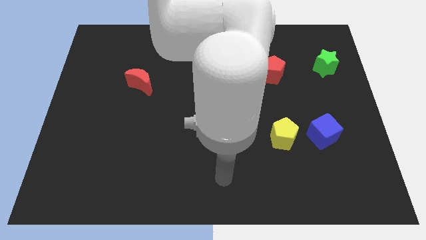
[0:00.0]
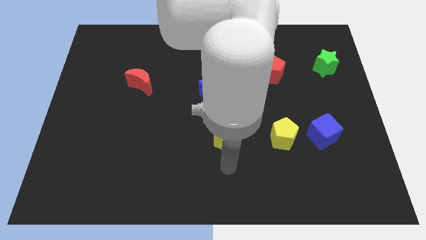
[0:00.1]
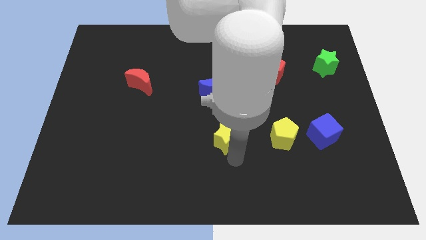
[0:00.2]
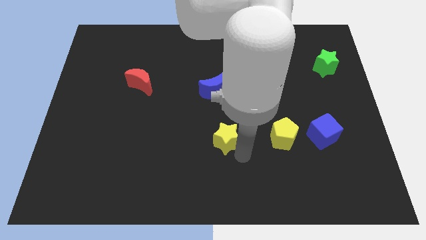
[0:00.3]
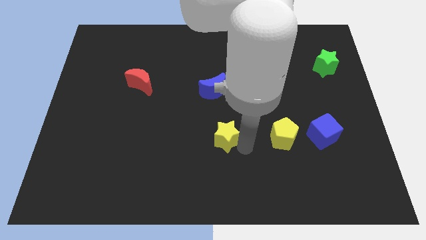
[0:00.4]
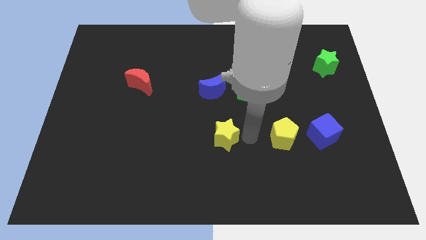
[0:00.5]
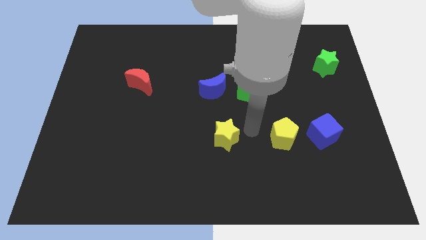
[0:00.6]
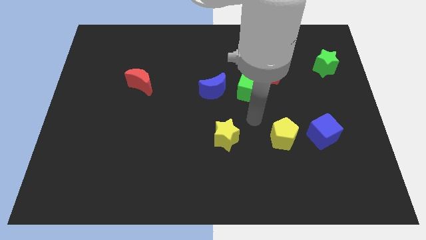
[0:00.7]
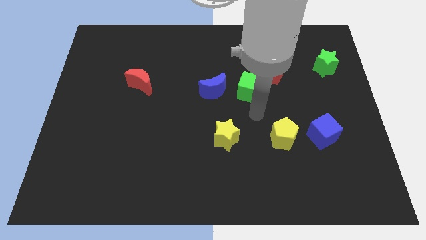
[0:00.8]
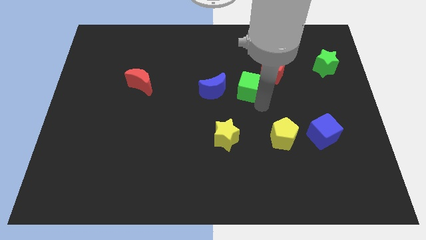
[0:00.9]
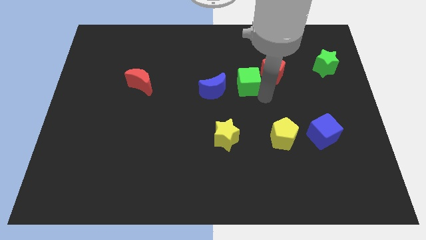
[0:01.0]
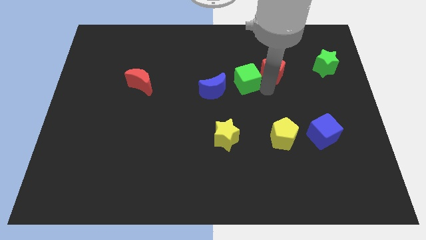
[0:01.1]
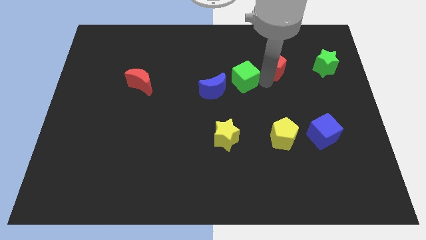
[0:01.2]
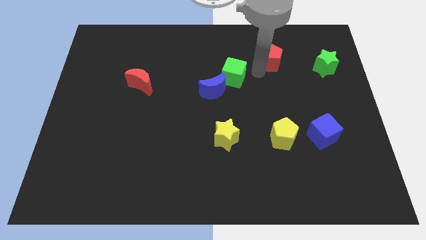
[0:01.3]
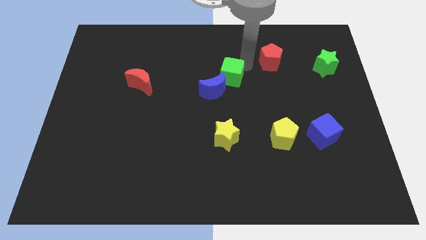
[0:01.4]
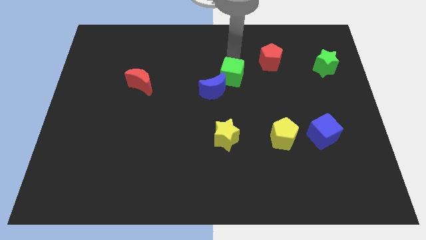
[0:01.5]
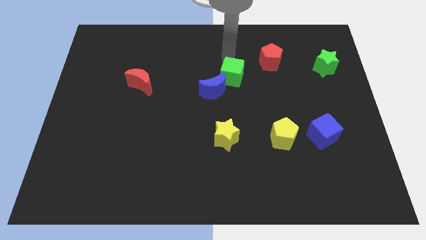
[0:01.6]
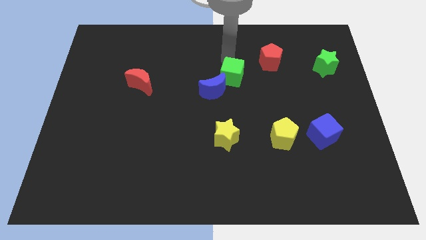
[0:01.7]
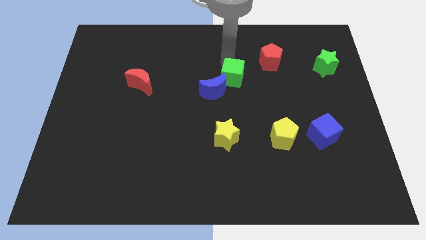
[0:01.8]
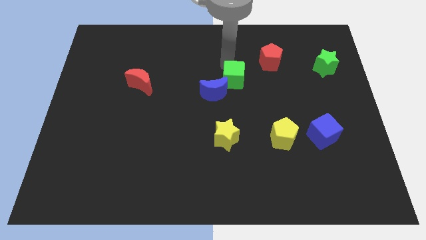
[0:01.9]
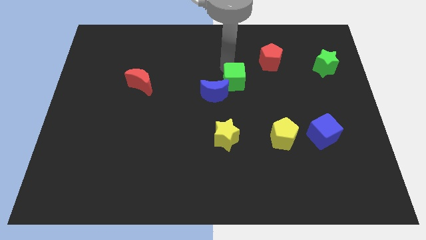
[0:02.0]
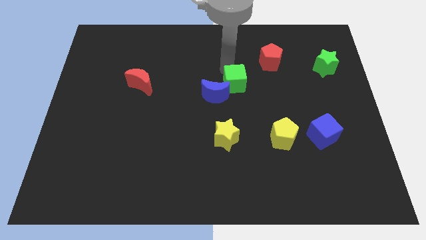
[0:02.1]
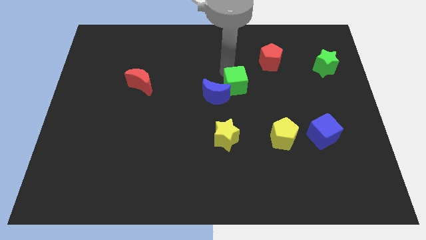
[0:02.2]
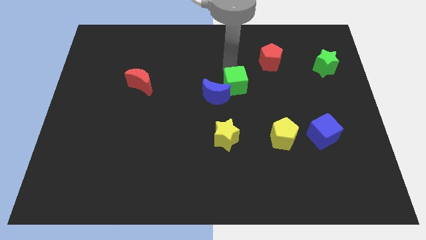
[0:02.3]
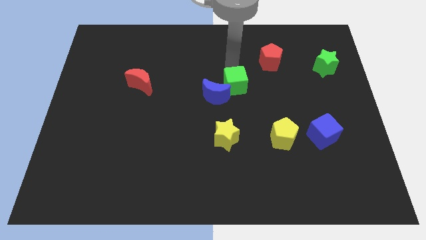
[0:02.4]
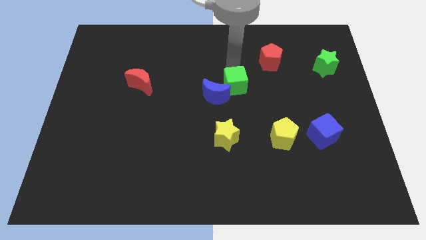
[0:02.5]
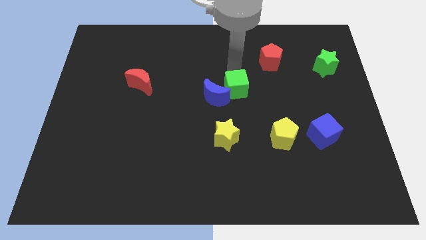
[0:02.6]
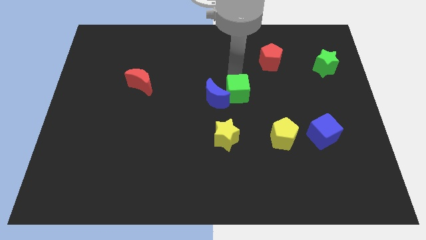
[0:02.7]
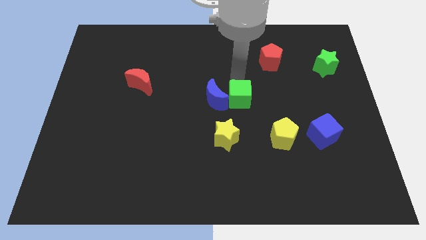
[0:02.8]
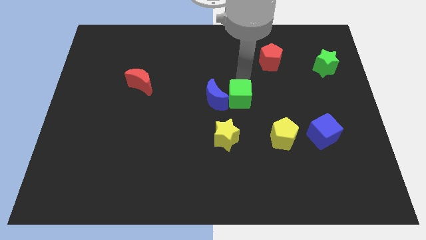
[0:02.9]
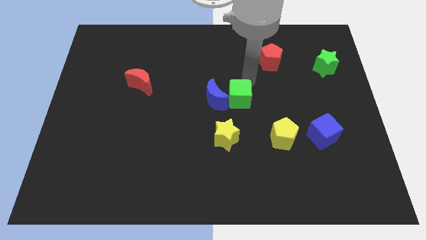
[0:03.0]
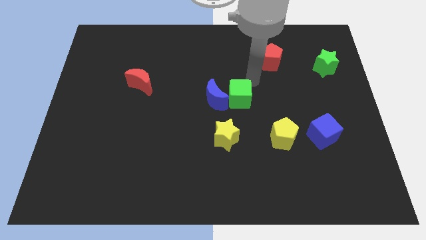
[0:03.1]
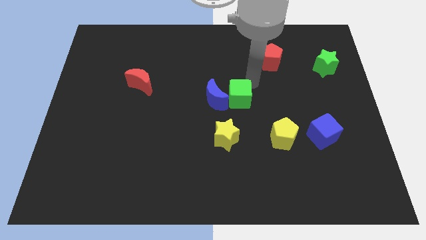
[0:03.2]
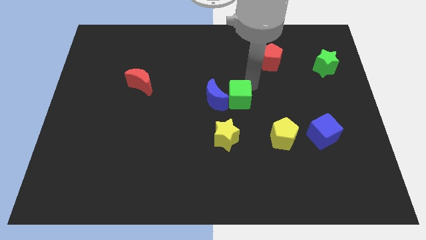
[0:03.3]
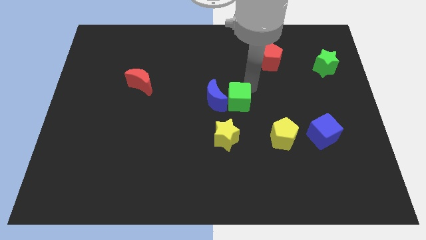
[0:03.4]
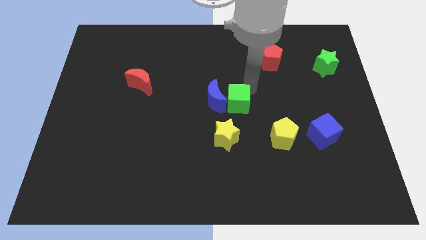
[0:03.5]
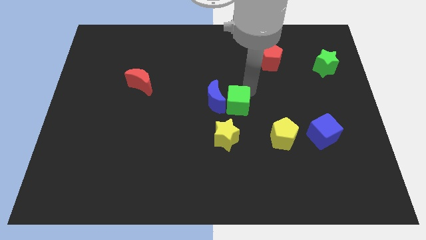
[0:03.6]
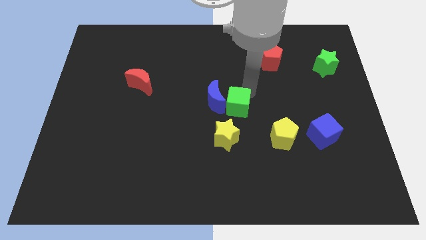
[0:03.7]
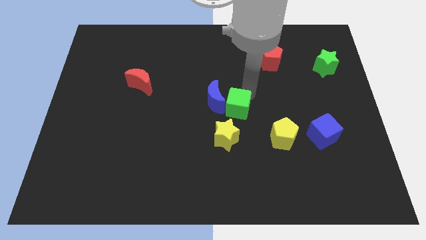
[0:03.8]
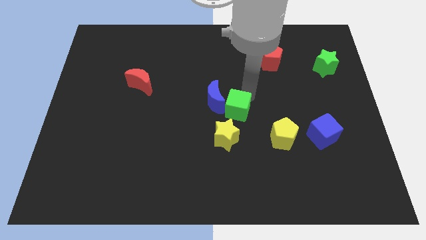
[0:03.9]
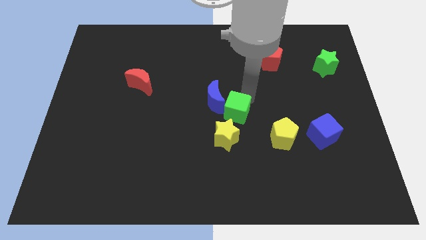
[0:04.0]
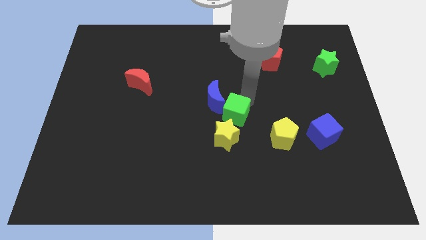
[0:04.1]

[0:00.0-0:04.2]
slide the green cube a little bit down and left

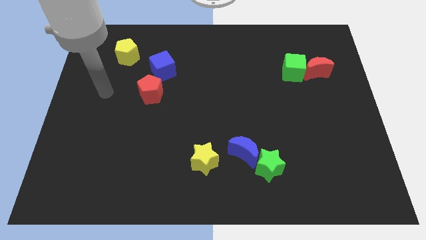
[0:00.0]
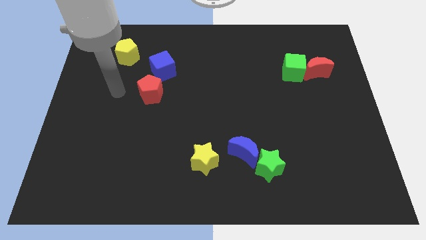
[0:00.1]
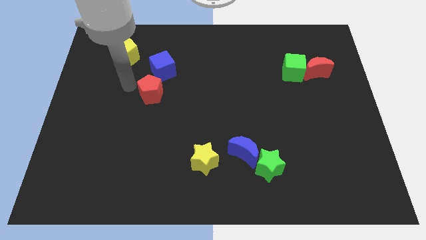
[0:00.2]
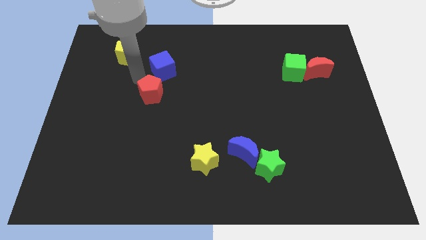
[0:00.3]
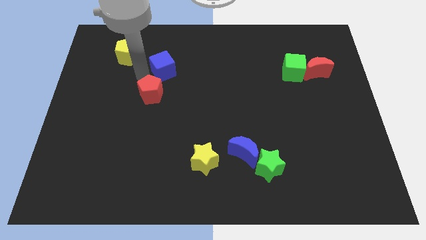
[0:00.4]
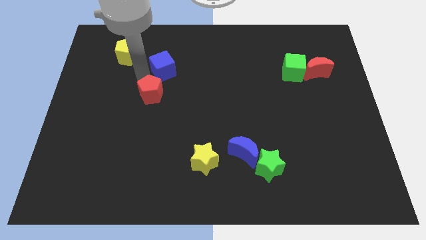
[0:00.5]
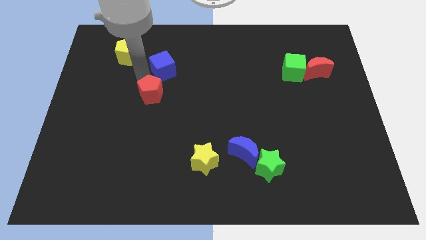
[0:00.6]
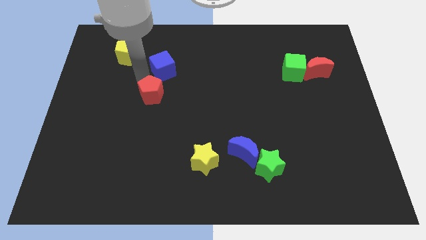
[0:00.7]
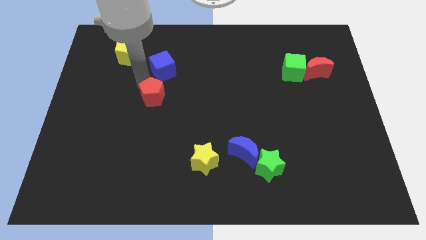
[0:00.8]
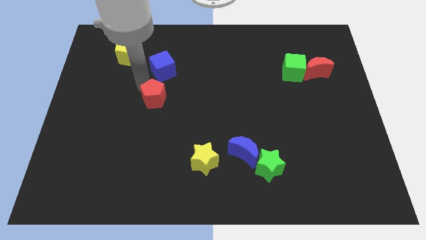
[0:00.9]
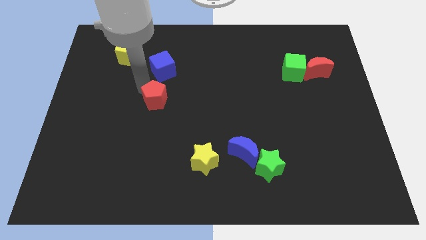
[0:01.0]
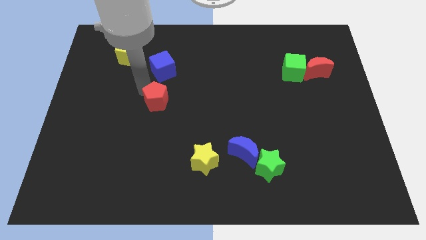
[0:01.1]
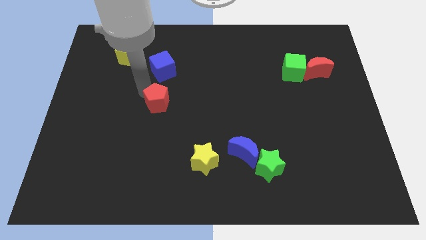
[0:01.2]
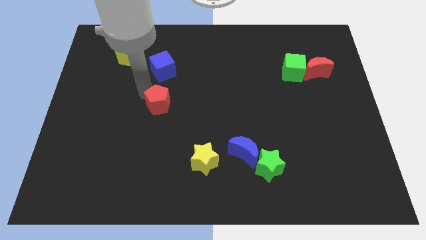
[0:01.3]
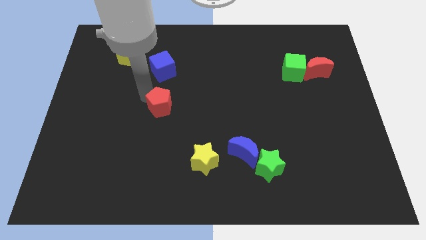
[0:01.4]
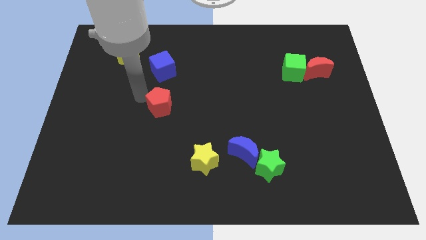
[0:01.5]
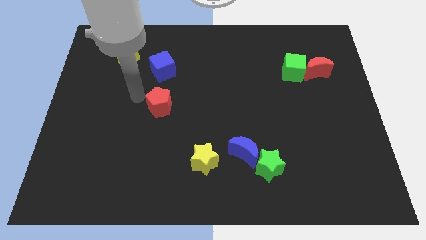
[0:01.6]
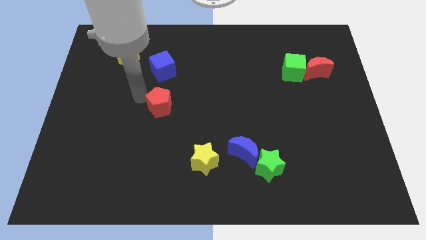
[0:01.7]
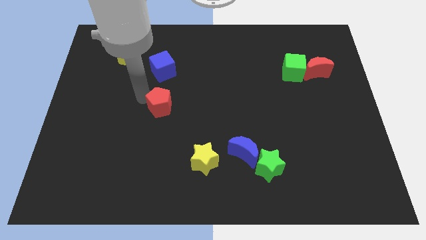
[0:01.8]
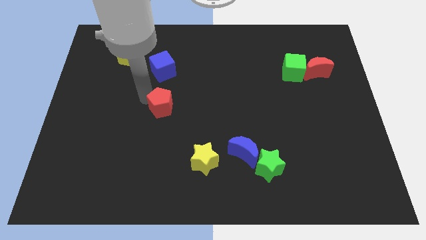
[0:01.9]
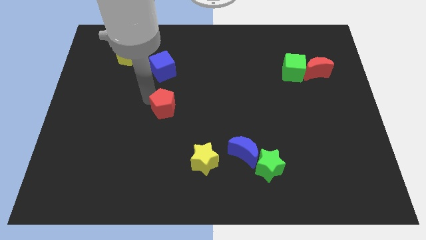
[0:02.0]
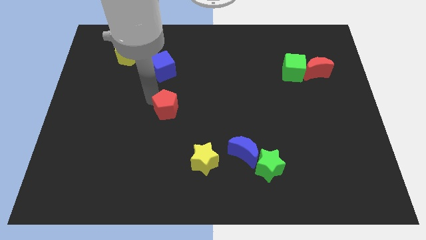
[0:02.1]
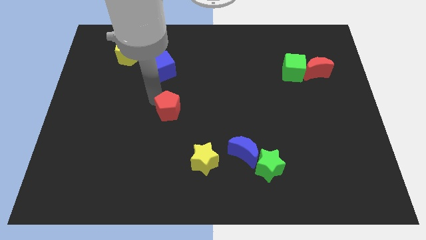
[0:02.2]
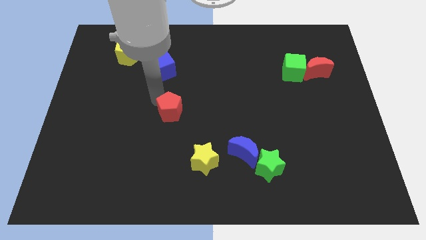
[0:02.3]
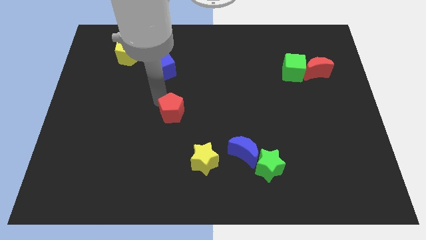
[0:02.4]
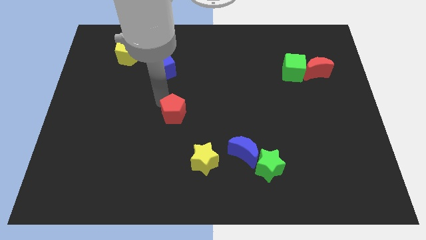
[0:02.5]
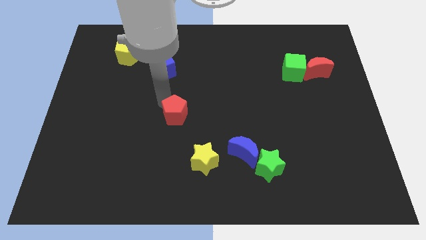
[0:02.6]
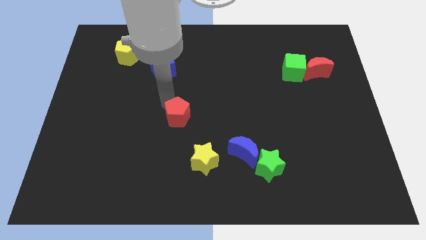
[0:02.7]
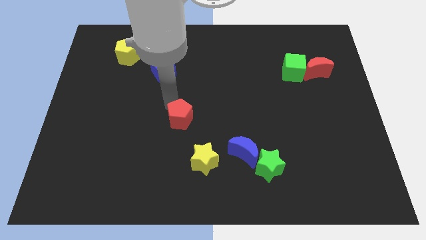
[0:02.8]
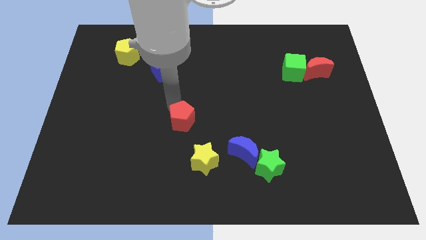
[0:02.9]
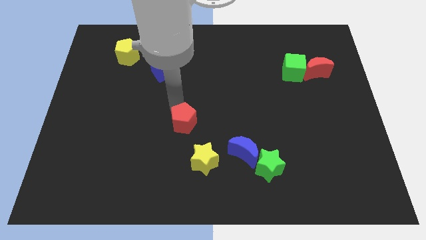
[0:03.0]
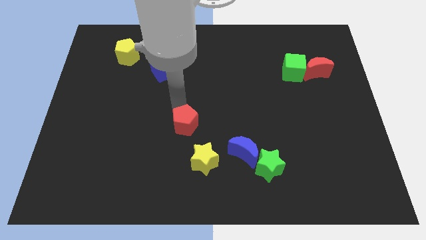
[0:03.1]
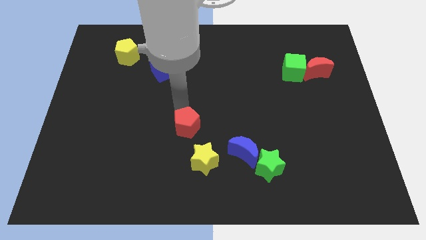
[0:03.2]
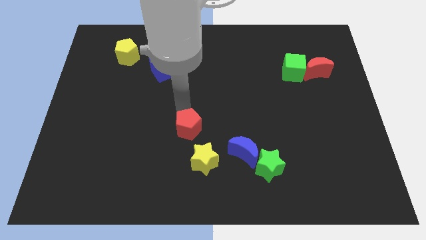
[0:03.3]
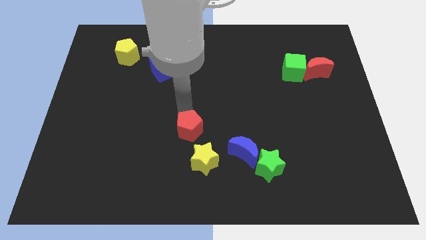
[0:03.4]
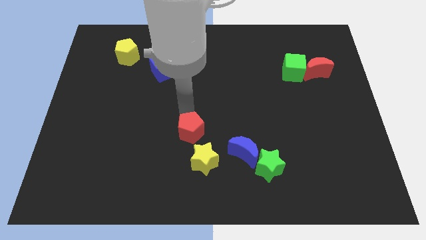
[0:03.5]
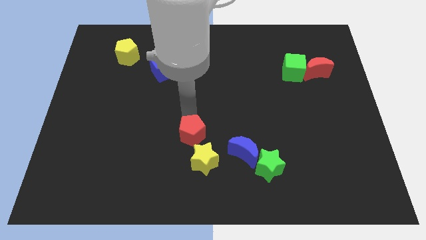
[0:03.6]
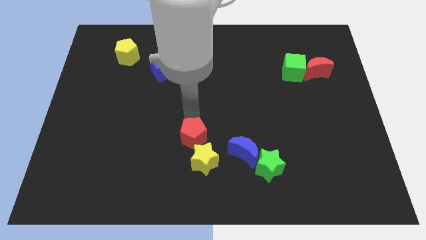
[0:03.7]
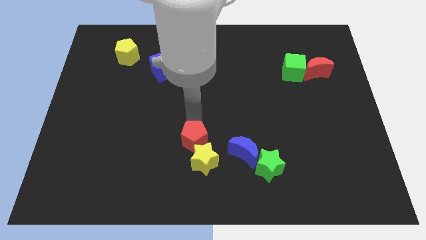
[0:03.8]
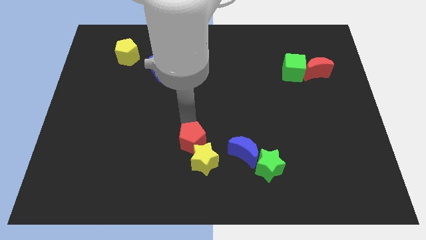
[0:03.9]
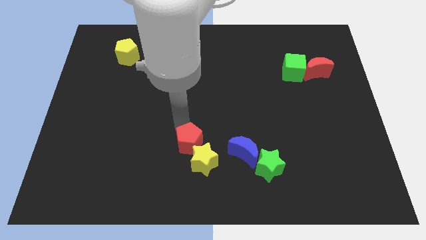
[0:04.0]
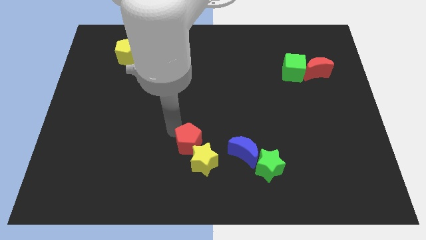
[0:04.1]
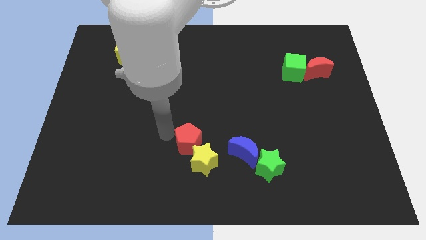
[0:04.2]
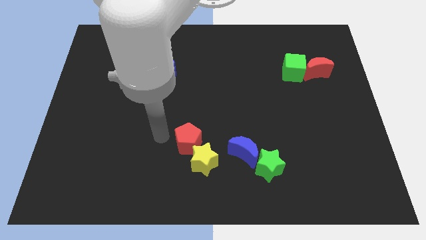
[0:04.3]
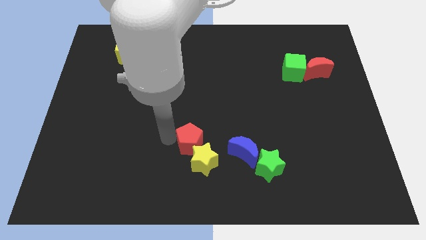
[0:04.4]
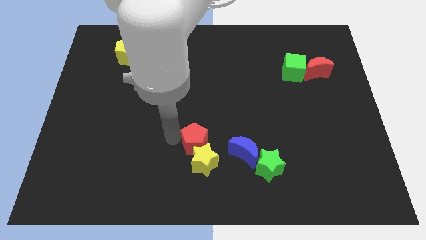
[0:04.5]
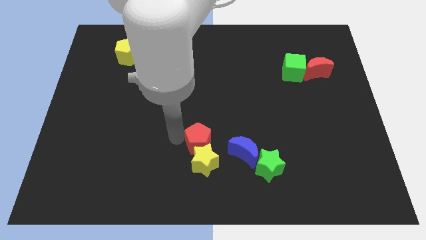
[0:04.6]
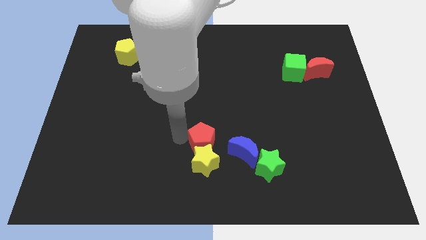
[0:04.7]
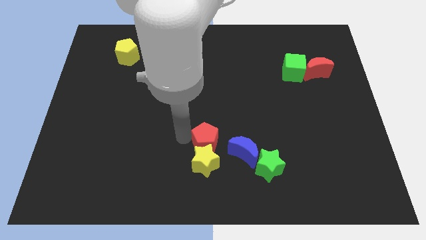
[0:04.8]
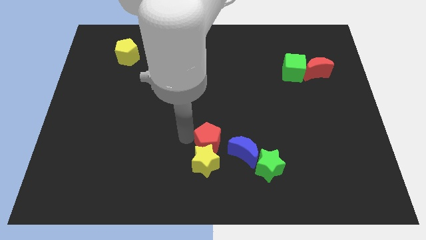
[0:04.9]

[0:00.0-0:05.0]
move the red pentagon downwards and right
